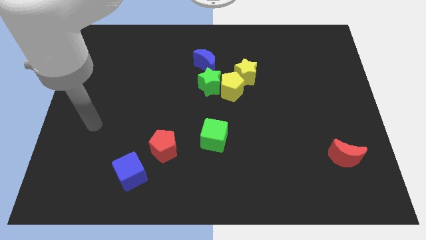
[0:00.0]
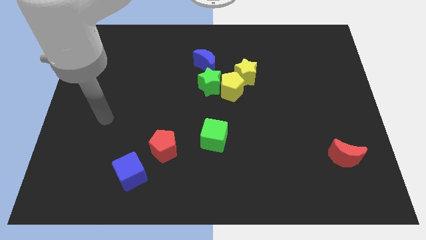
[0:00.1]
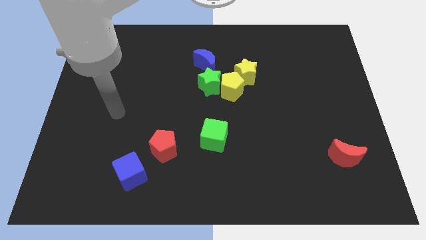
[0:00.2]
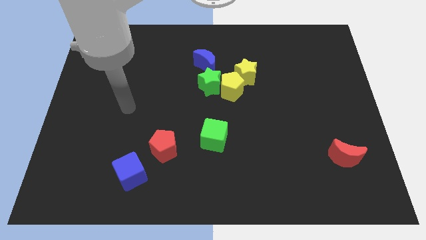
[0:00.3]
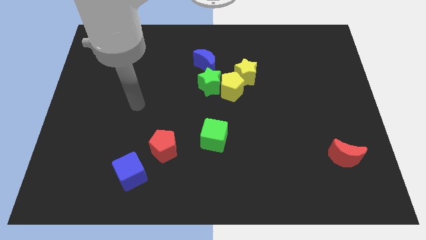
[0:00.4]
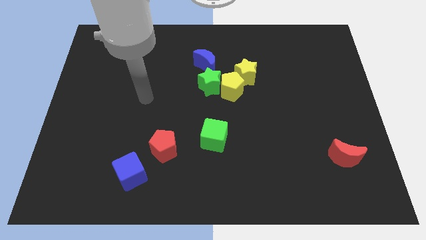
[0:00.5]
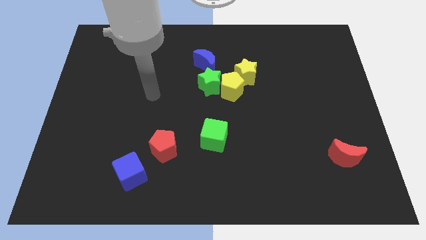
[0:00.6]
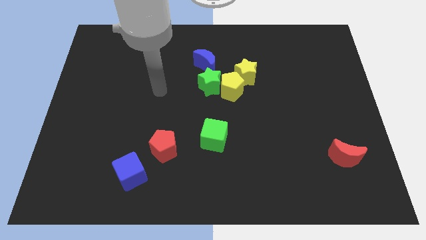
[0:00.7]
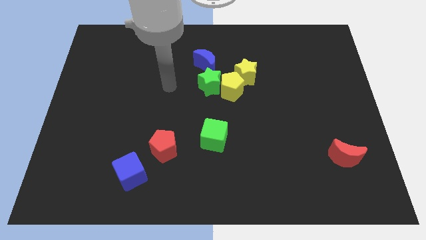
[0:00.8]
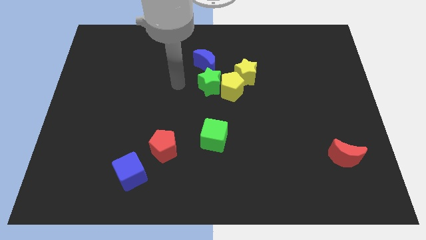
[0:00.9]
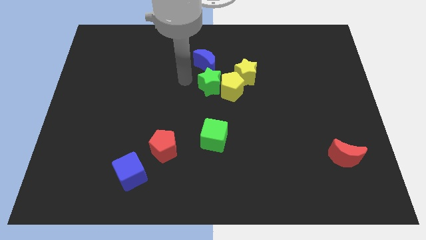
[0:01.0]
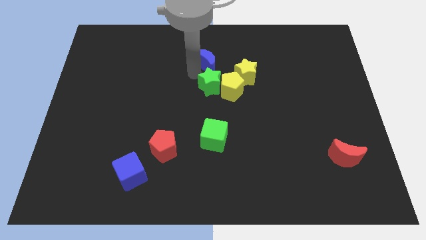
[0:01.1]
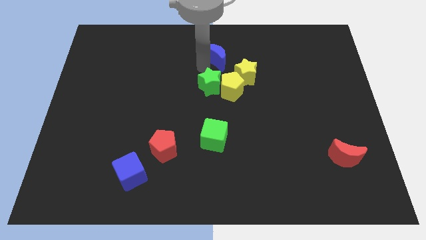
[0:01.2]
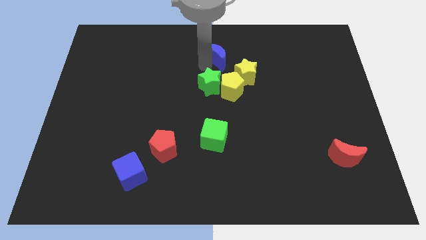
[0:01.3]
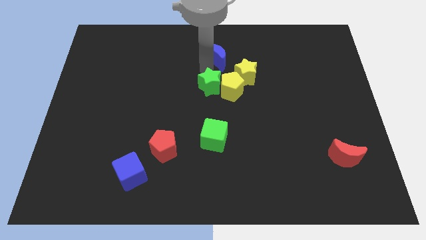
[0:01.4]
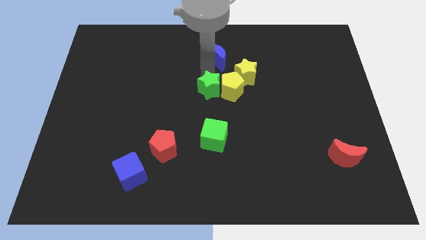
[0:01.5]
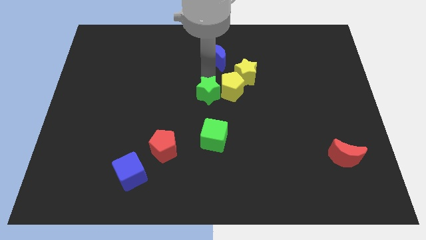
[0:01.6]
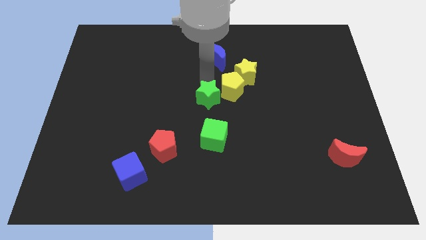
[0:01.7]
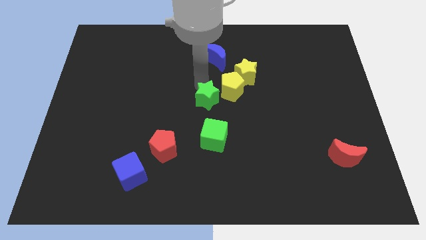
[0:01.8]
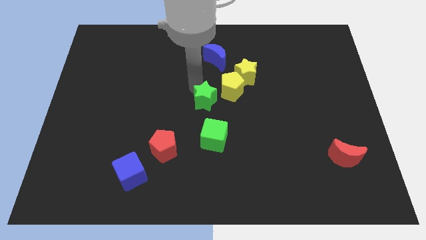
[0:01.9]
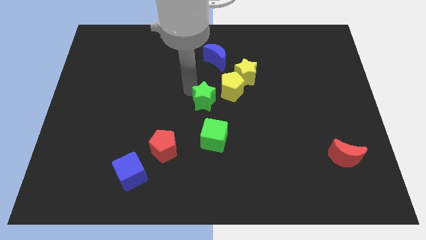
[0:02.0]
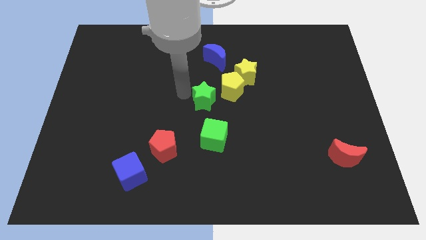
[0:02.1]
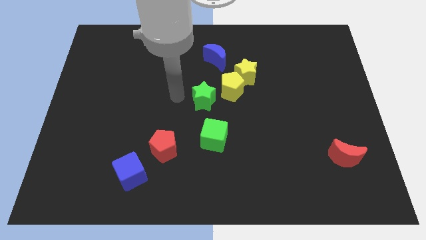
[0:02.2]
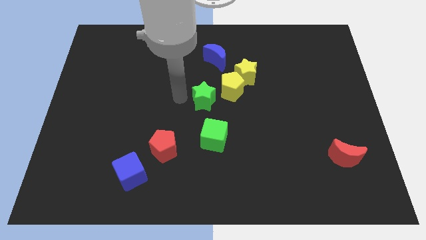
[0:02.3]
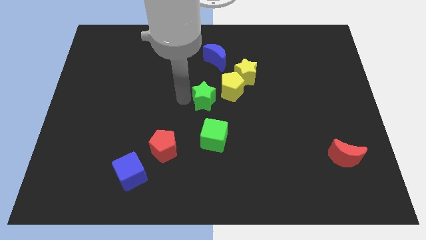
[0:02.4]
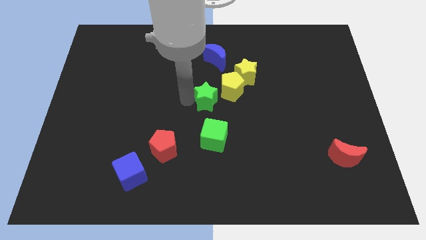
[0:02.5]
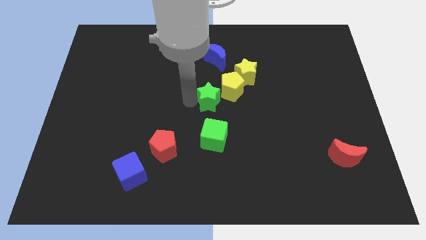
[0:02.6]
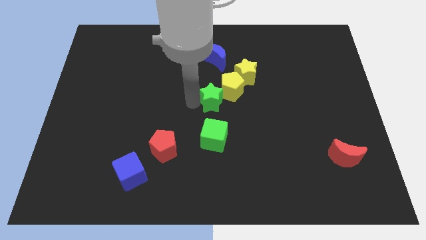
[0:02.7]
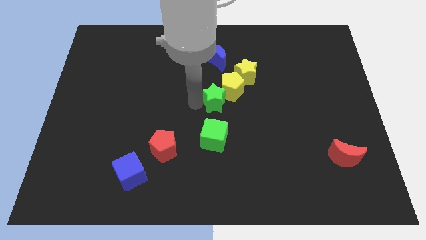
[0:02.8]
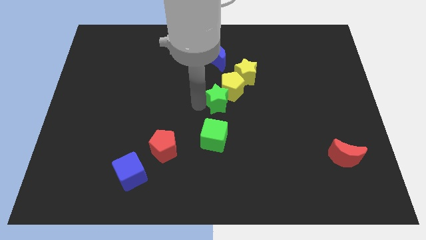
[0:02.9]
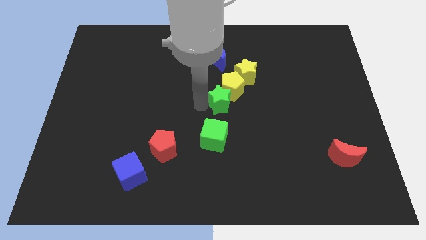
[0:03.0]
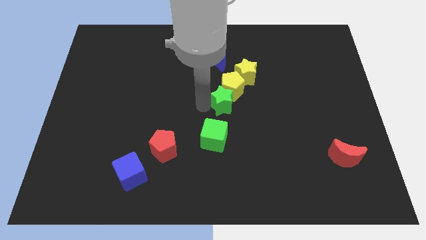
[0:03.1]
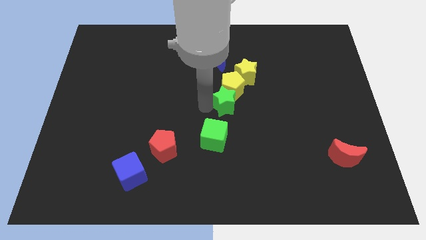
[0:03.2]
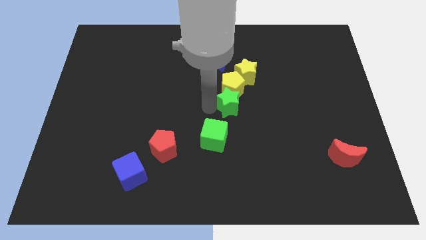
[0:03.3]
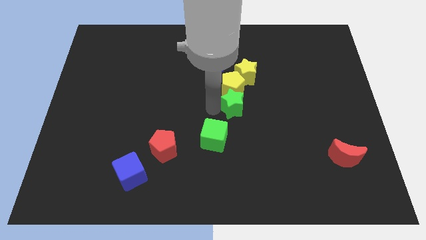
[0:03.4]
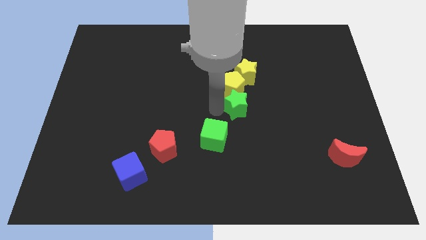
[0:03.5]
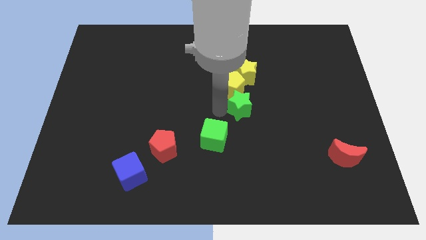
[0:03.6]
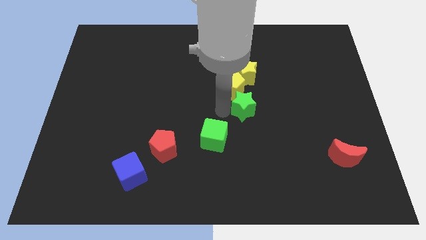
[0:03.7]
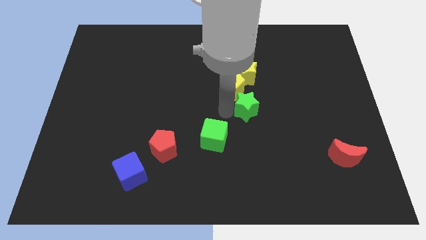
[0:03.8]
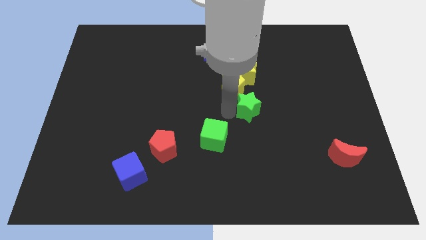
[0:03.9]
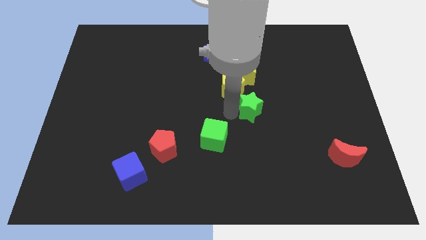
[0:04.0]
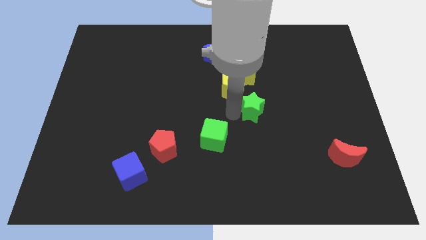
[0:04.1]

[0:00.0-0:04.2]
slide the green star somewhat right

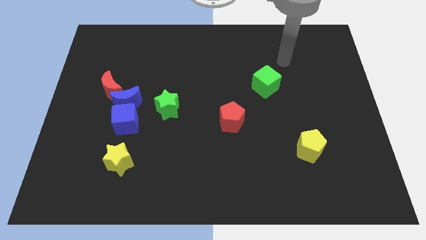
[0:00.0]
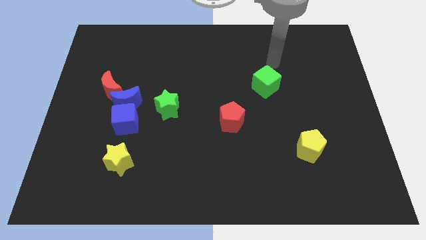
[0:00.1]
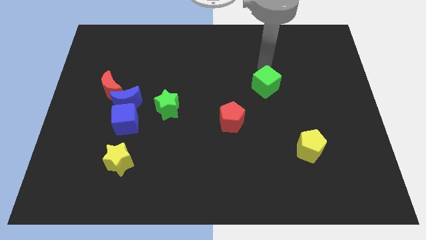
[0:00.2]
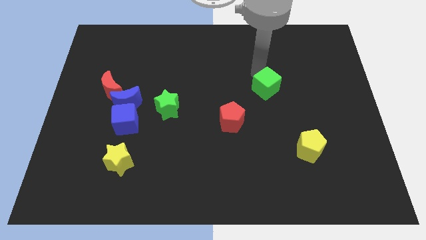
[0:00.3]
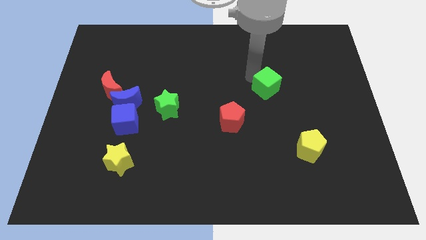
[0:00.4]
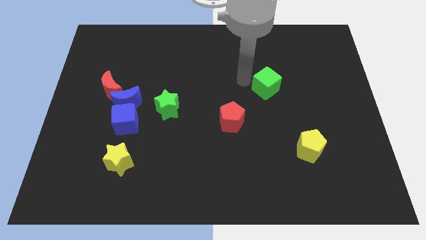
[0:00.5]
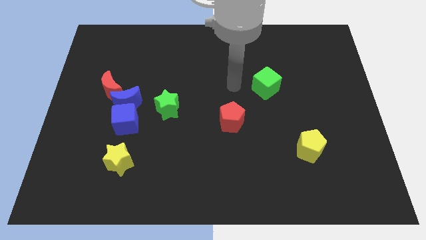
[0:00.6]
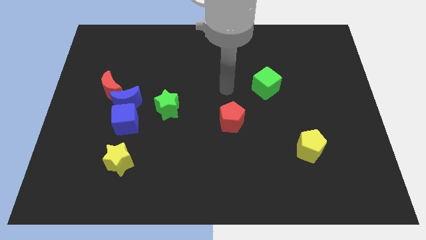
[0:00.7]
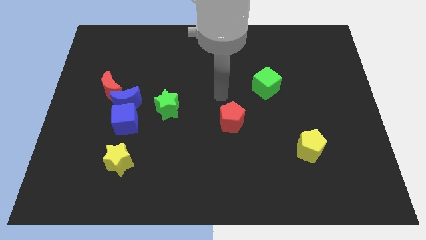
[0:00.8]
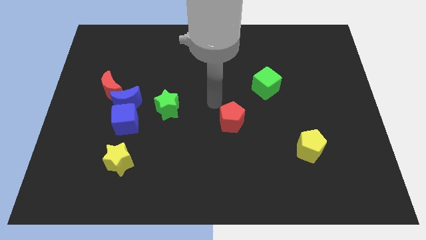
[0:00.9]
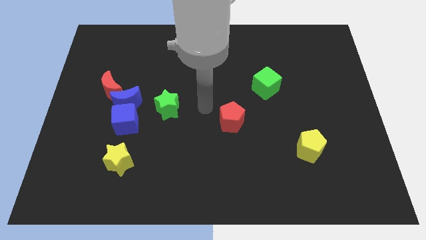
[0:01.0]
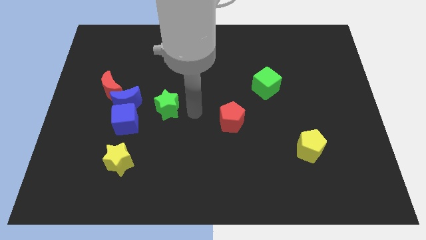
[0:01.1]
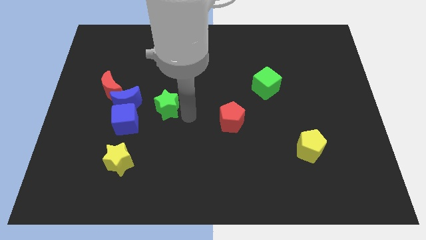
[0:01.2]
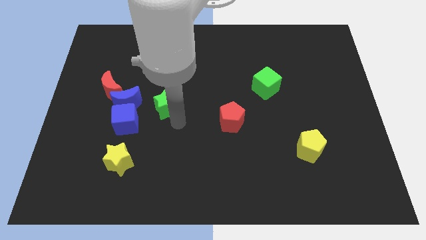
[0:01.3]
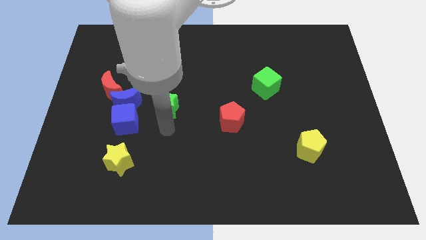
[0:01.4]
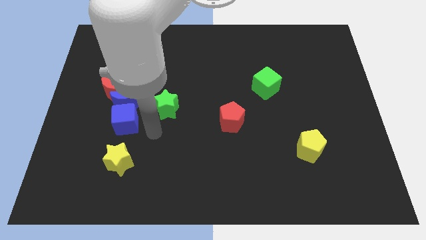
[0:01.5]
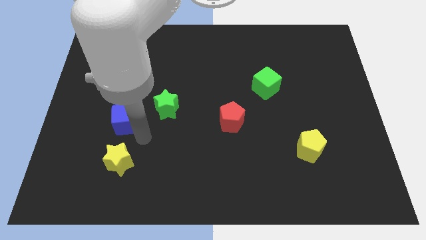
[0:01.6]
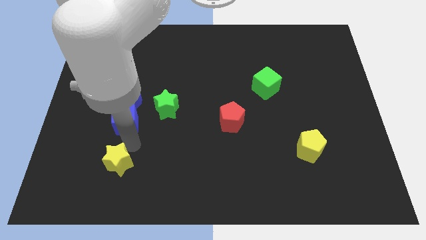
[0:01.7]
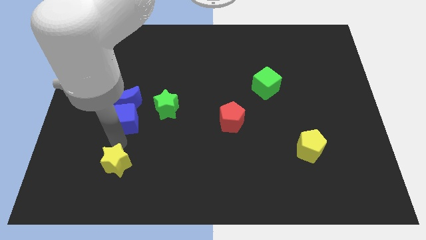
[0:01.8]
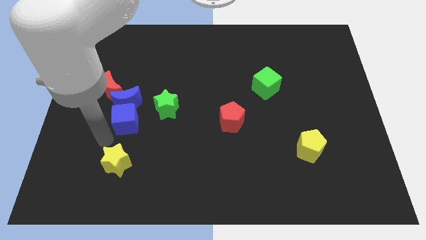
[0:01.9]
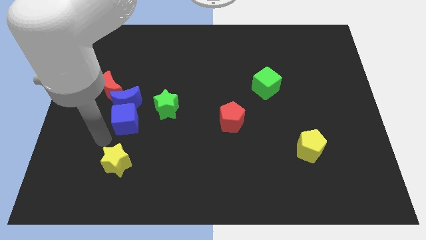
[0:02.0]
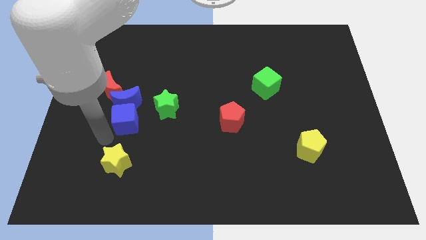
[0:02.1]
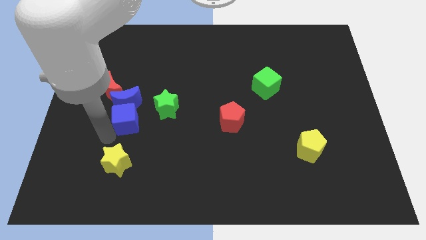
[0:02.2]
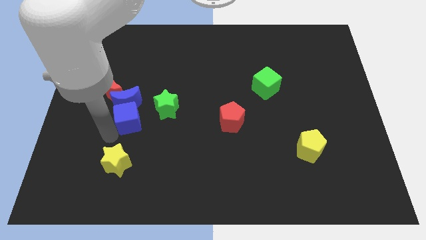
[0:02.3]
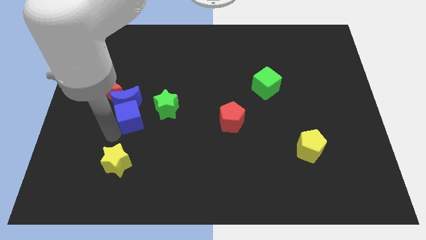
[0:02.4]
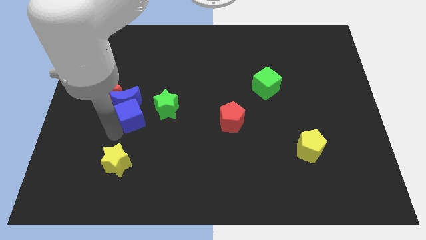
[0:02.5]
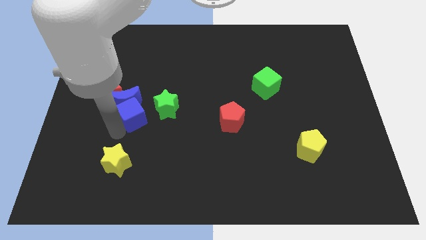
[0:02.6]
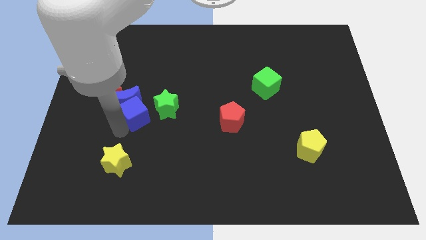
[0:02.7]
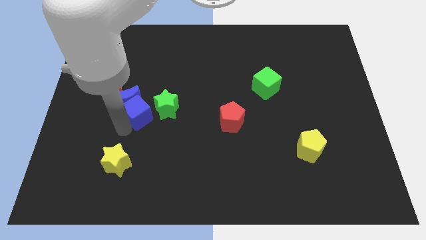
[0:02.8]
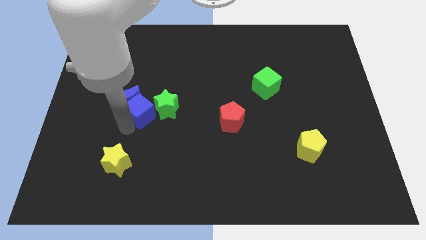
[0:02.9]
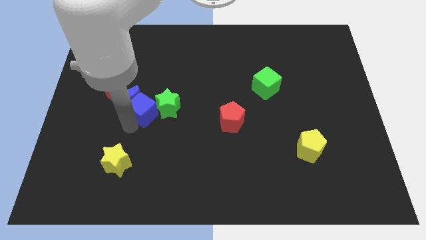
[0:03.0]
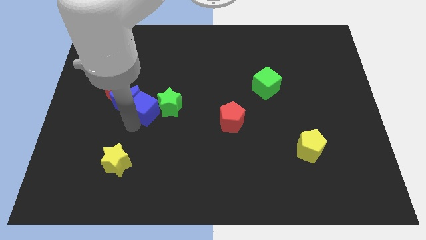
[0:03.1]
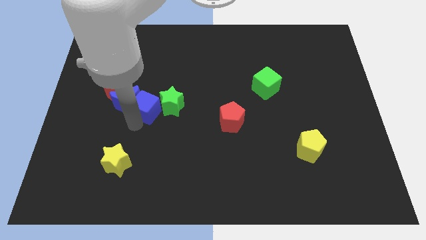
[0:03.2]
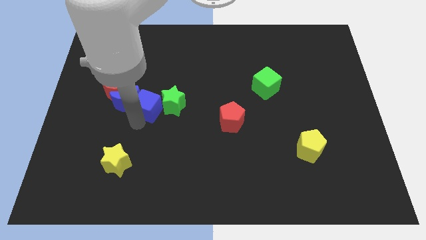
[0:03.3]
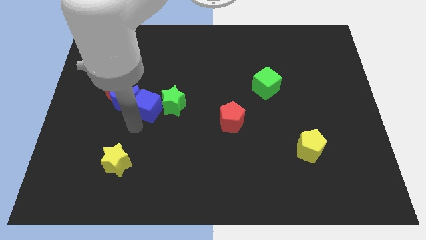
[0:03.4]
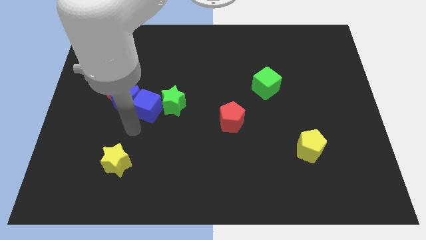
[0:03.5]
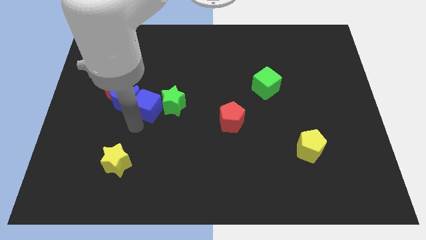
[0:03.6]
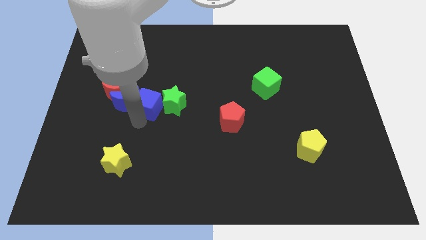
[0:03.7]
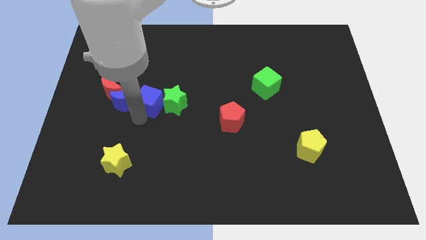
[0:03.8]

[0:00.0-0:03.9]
slide the blue cube slightly diagonally upwards and to the right

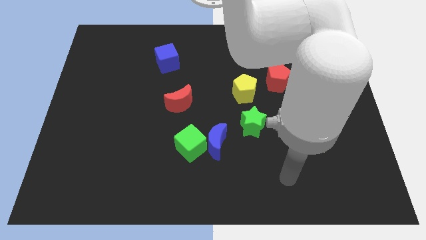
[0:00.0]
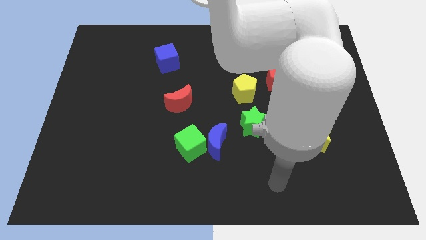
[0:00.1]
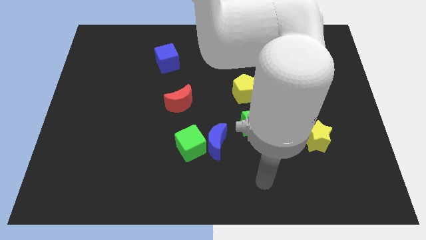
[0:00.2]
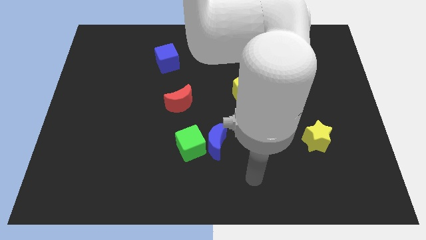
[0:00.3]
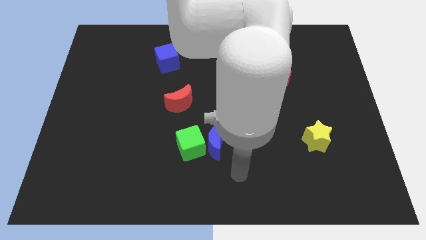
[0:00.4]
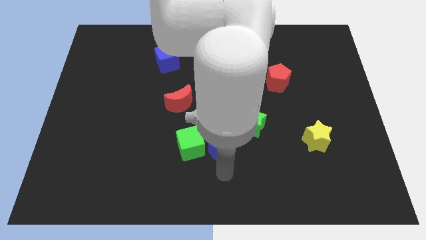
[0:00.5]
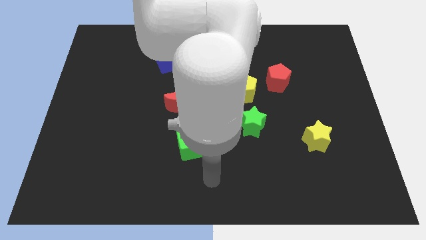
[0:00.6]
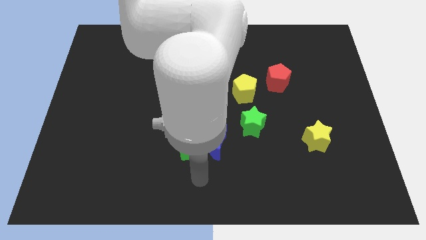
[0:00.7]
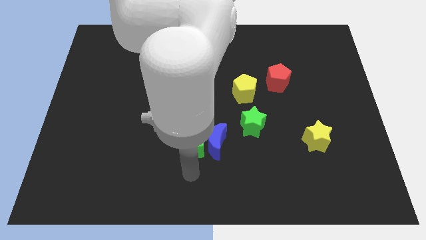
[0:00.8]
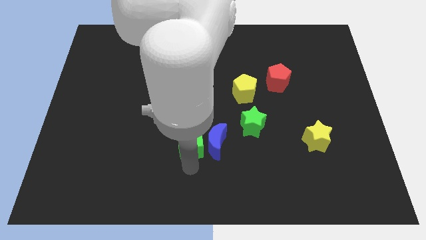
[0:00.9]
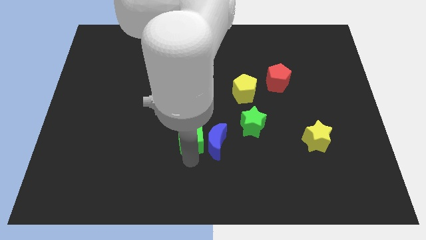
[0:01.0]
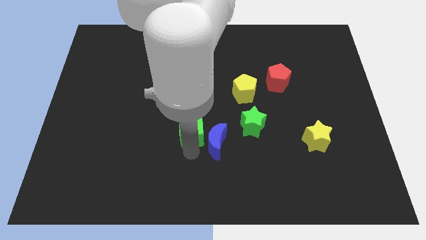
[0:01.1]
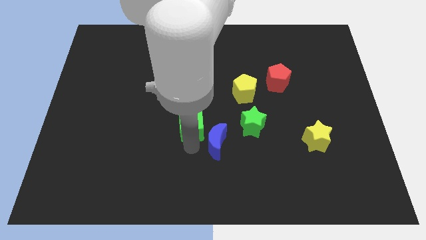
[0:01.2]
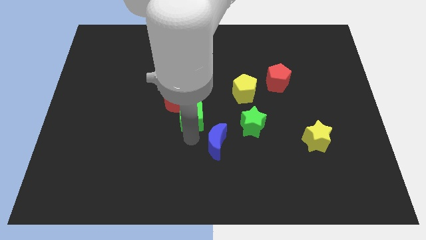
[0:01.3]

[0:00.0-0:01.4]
move the green cube a little bit up
